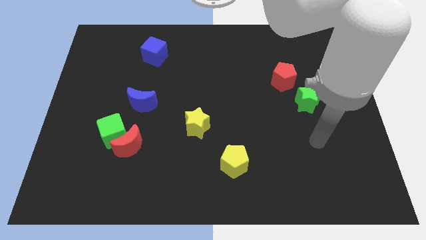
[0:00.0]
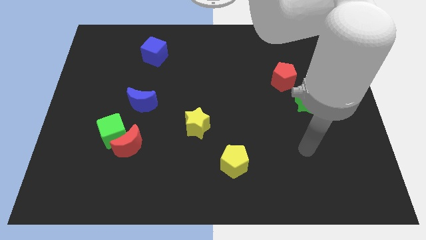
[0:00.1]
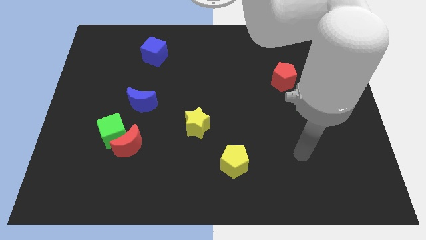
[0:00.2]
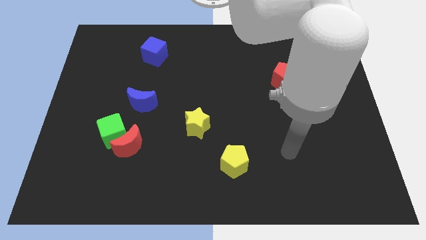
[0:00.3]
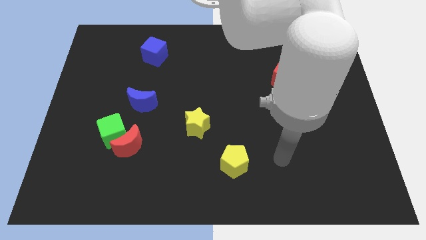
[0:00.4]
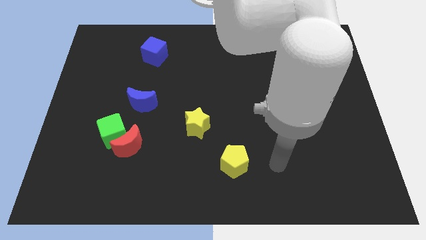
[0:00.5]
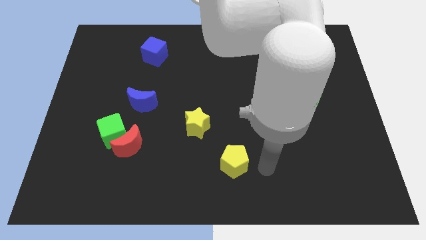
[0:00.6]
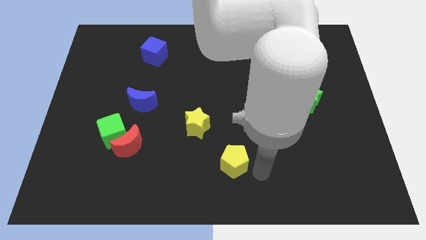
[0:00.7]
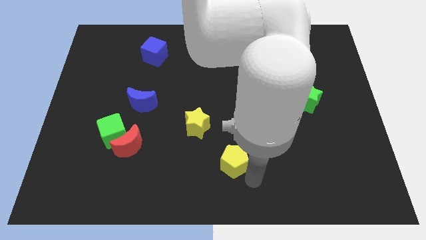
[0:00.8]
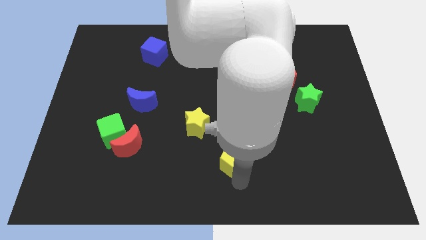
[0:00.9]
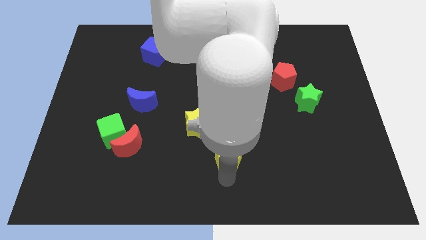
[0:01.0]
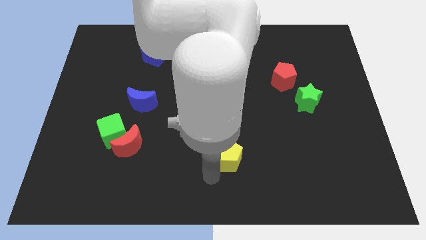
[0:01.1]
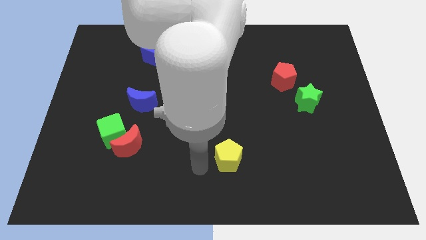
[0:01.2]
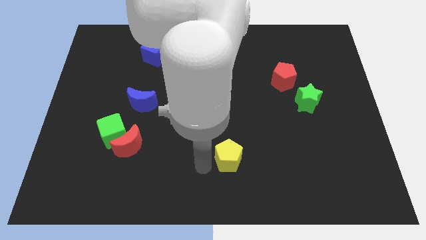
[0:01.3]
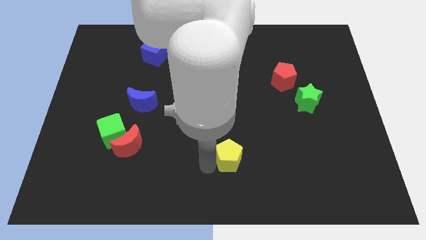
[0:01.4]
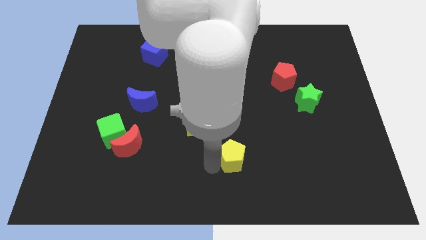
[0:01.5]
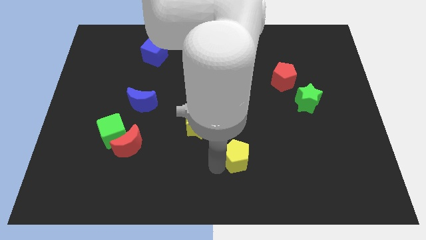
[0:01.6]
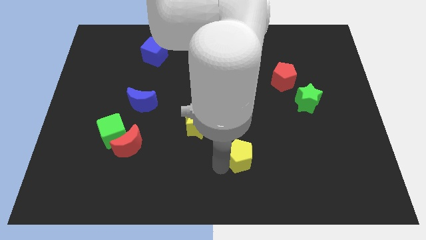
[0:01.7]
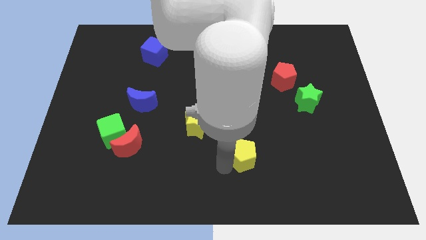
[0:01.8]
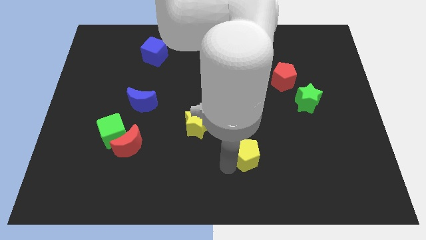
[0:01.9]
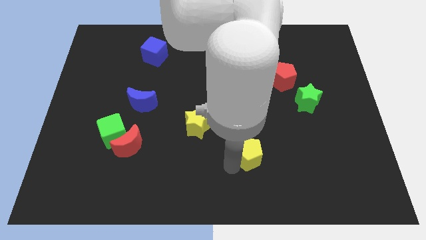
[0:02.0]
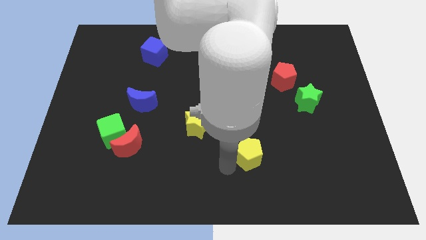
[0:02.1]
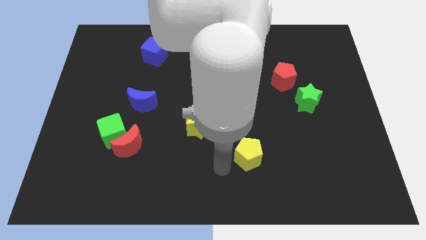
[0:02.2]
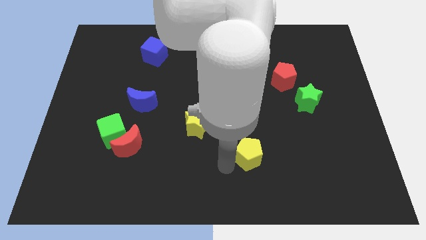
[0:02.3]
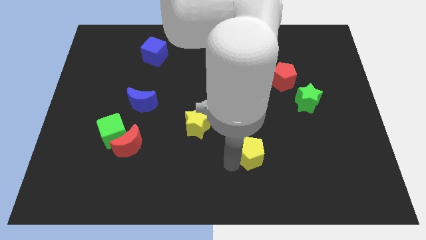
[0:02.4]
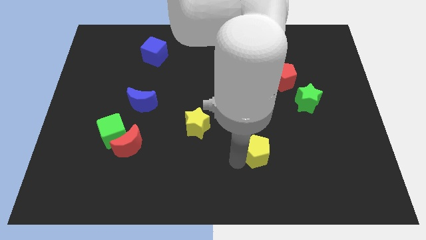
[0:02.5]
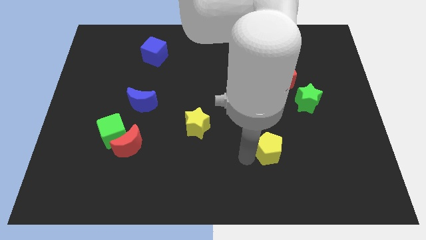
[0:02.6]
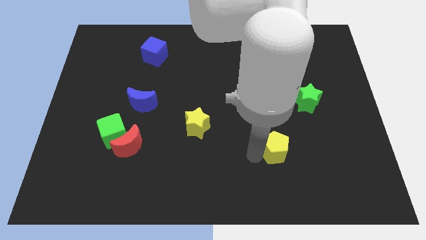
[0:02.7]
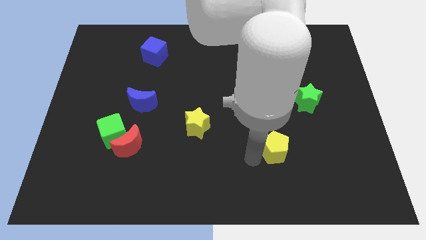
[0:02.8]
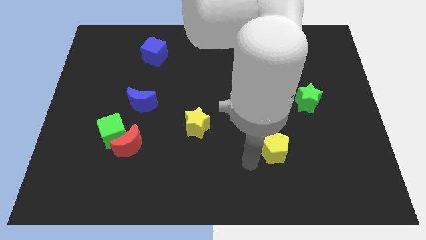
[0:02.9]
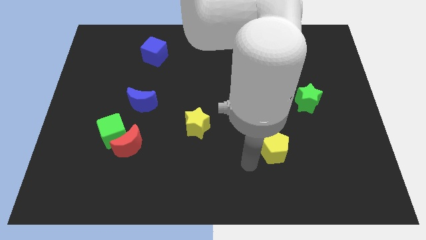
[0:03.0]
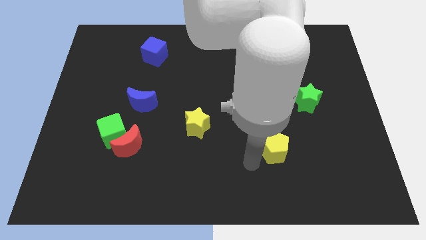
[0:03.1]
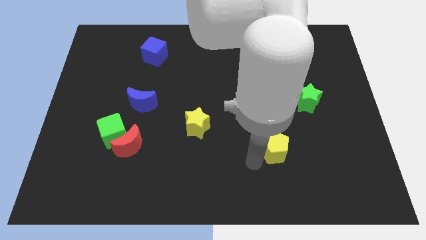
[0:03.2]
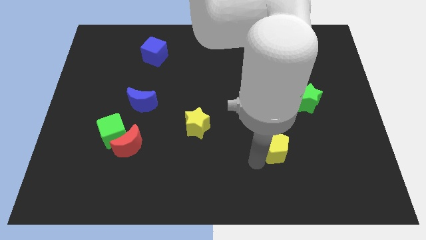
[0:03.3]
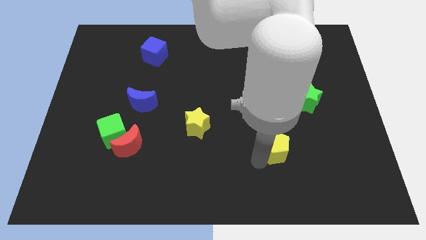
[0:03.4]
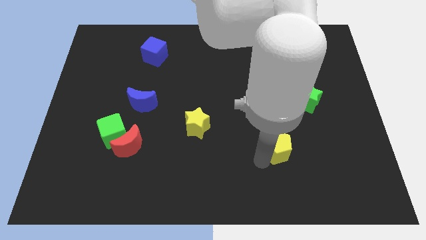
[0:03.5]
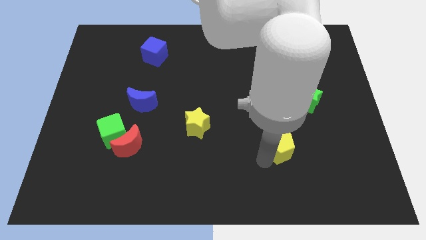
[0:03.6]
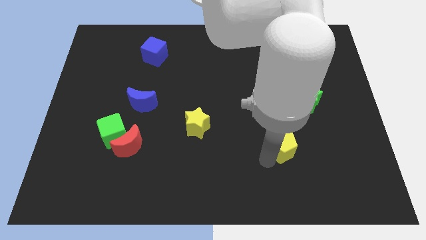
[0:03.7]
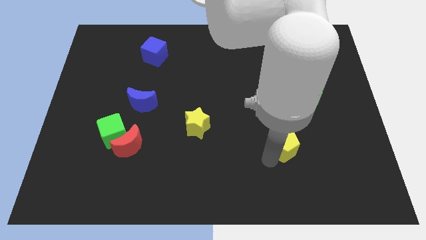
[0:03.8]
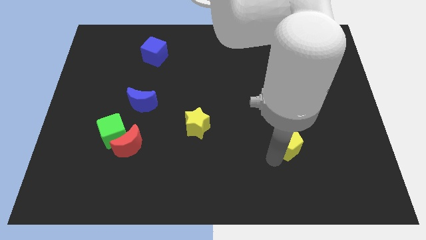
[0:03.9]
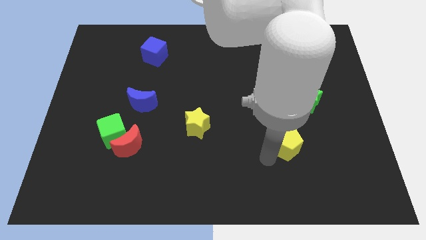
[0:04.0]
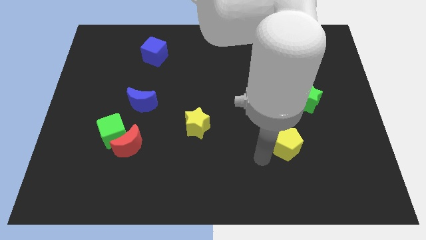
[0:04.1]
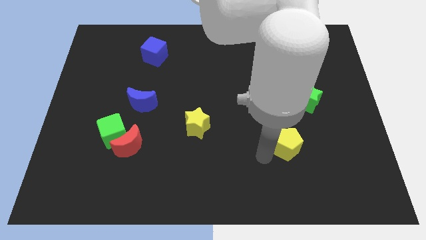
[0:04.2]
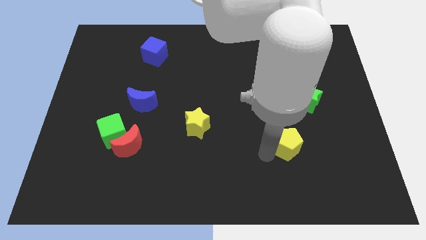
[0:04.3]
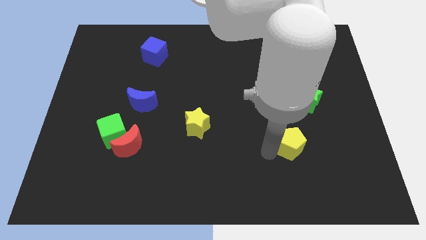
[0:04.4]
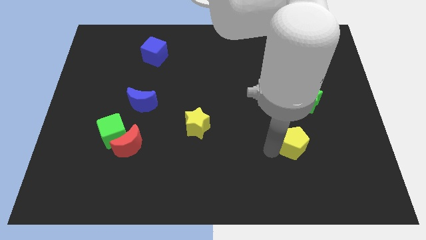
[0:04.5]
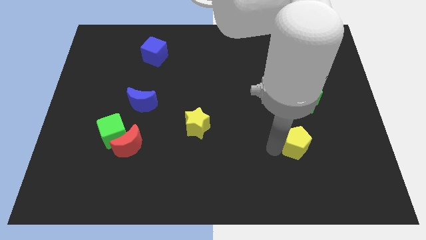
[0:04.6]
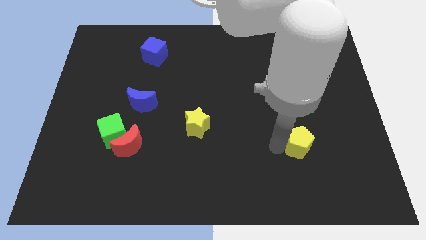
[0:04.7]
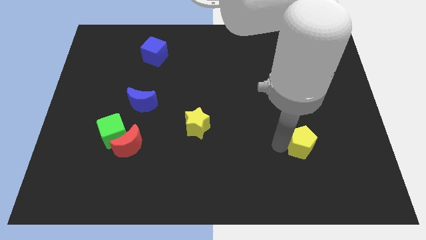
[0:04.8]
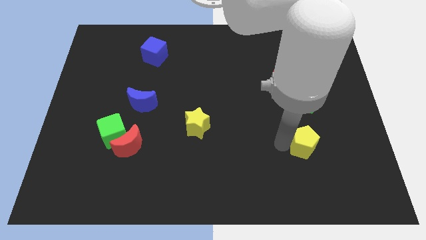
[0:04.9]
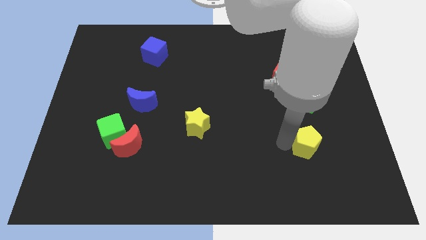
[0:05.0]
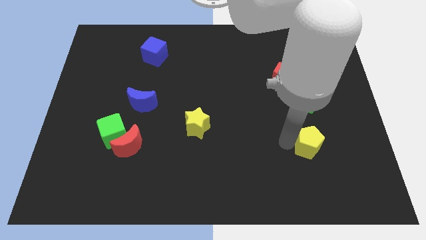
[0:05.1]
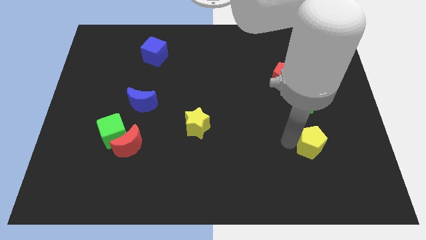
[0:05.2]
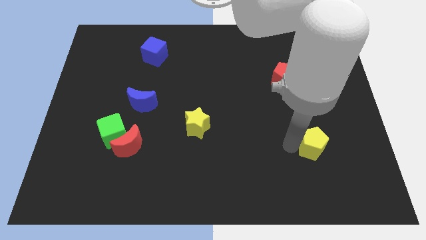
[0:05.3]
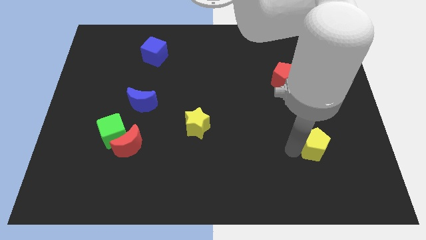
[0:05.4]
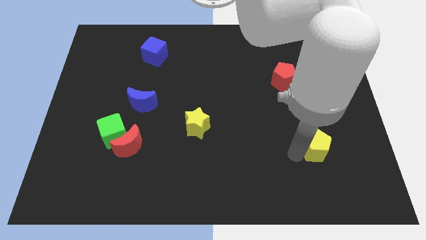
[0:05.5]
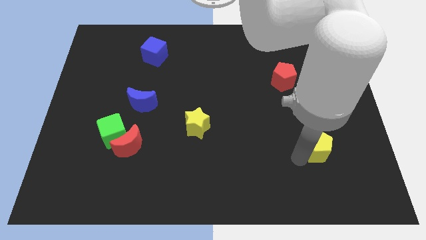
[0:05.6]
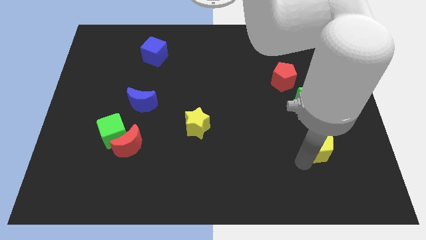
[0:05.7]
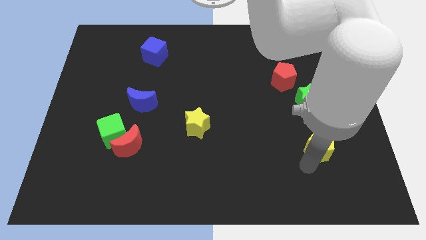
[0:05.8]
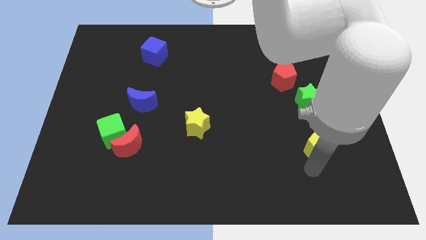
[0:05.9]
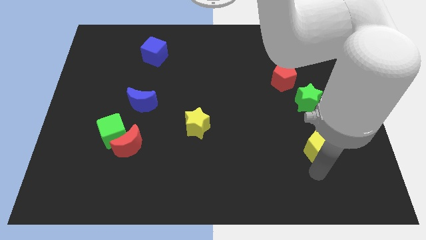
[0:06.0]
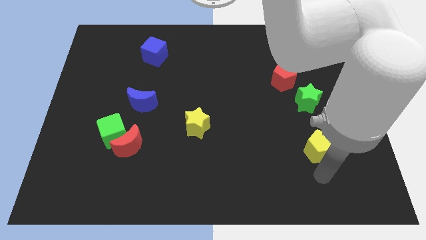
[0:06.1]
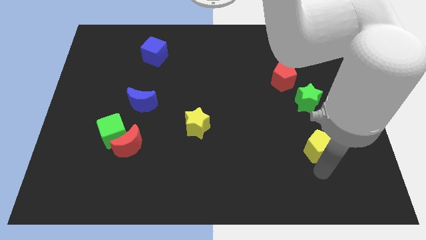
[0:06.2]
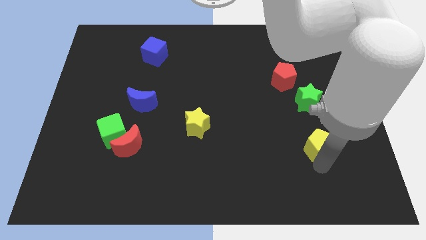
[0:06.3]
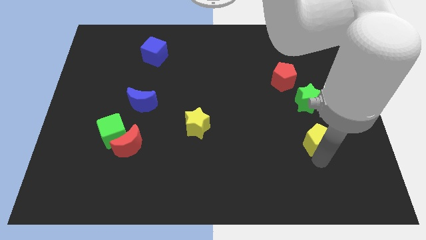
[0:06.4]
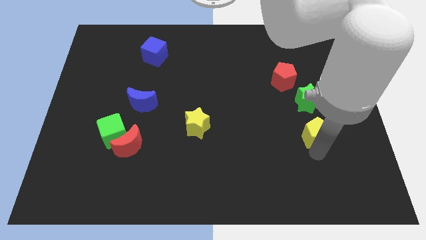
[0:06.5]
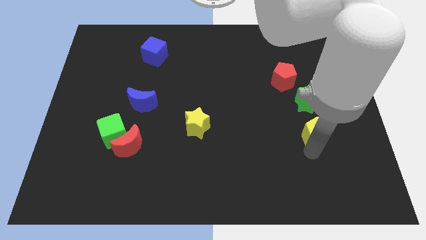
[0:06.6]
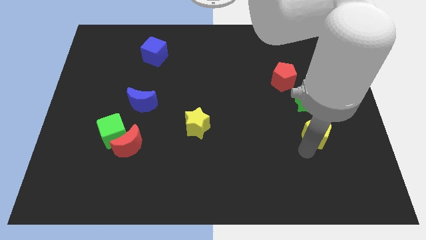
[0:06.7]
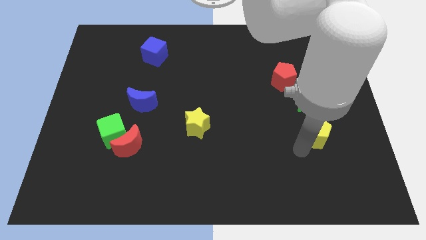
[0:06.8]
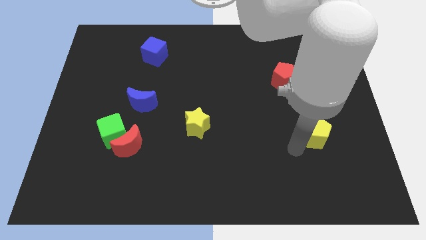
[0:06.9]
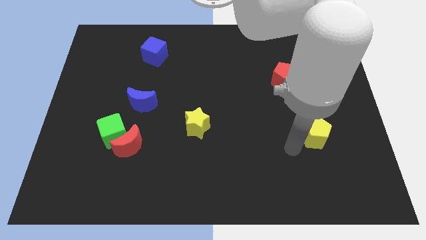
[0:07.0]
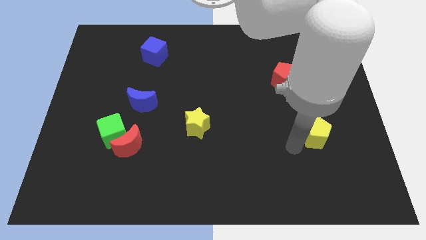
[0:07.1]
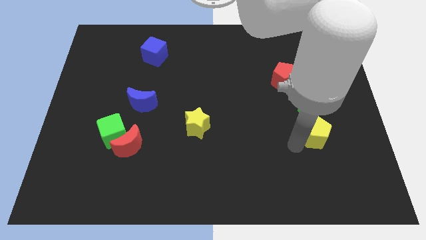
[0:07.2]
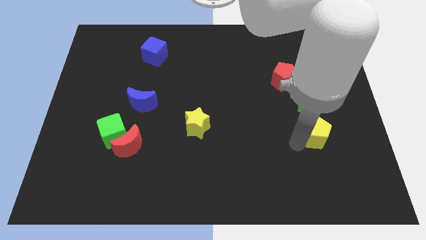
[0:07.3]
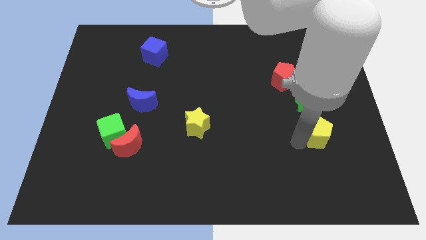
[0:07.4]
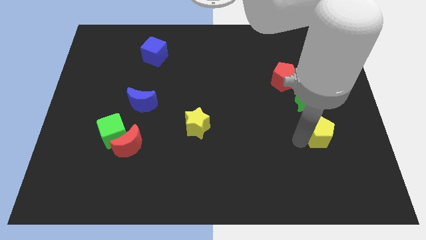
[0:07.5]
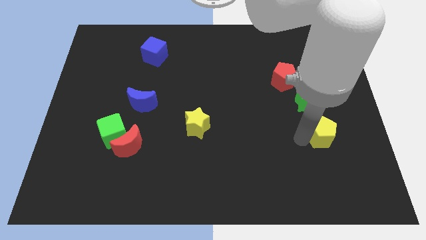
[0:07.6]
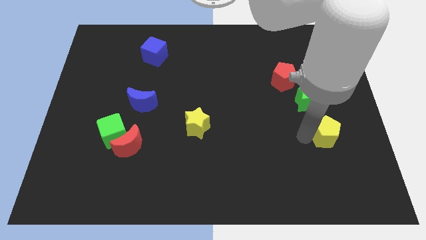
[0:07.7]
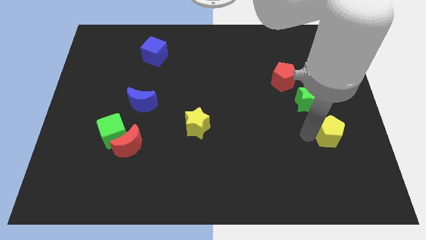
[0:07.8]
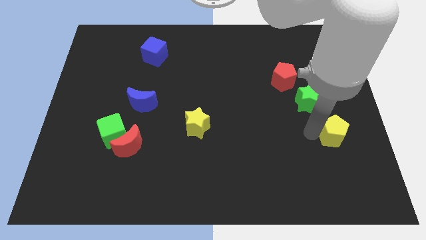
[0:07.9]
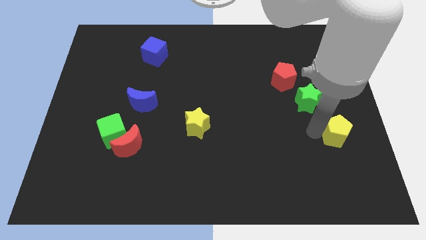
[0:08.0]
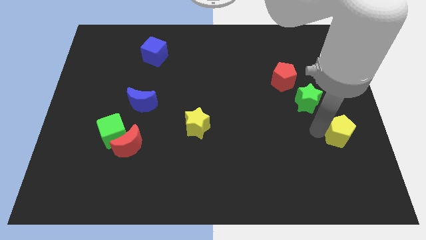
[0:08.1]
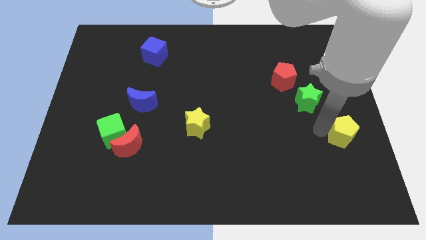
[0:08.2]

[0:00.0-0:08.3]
put the yellow pentagon to the right side of the board
